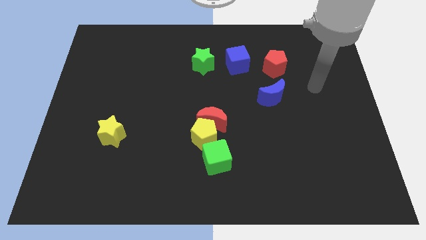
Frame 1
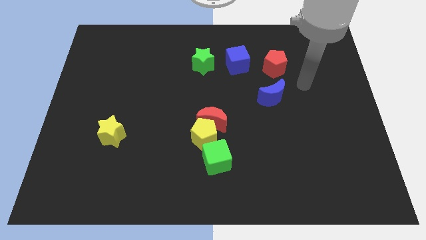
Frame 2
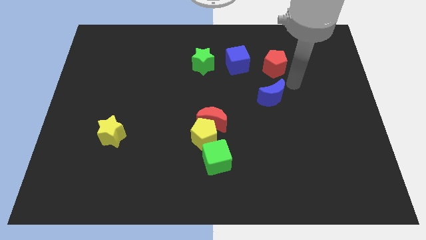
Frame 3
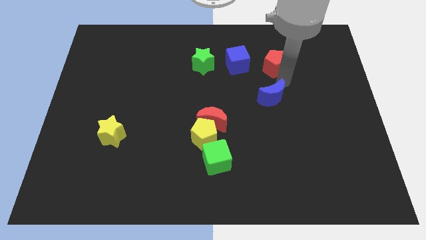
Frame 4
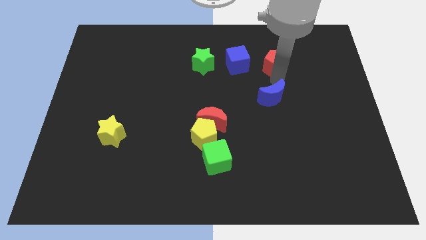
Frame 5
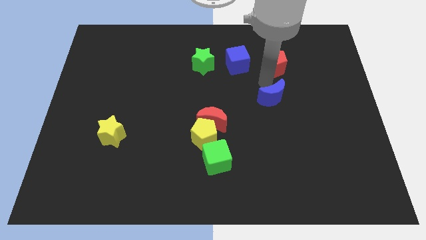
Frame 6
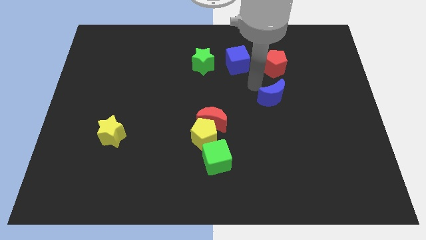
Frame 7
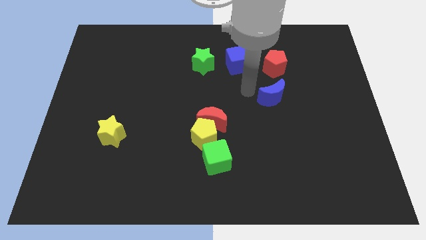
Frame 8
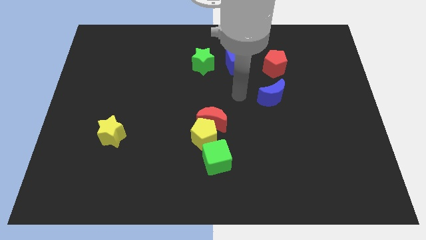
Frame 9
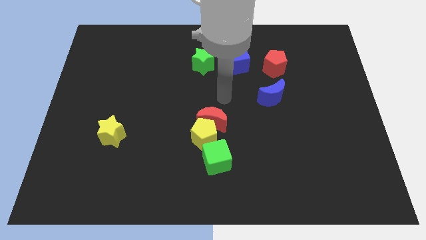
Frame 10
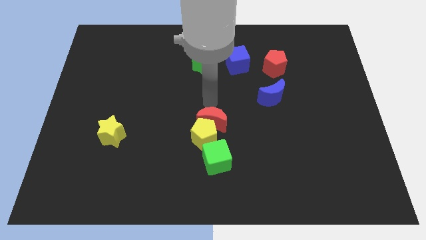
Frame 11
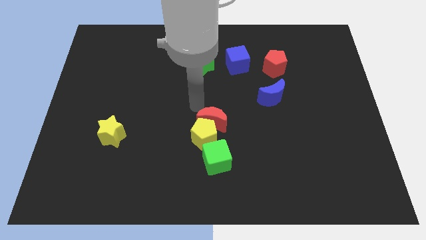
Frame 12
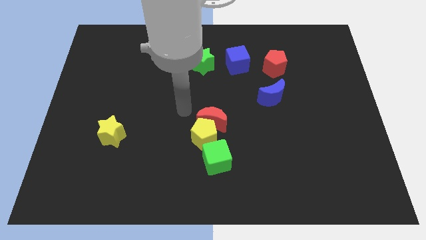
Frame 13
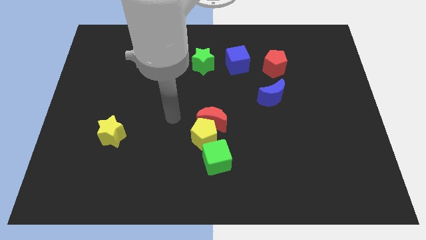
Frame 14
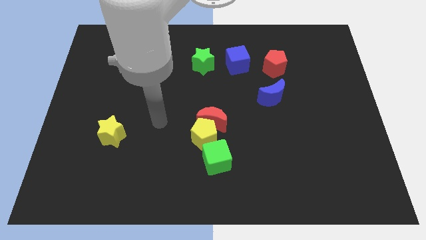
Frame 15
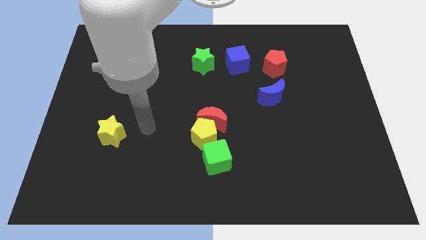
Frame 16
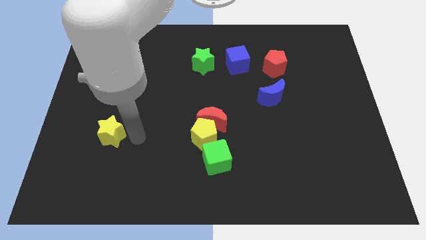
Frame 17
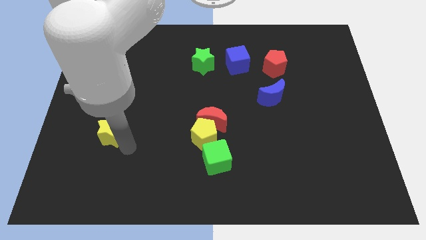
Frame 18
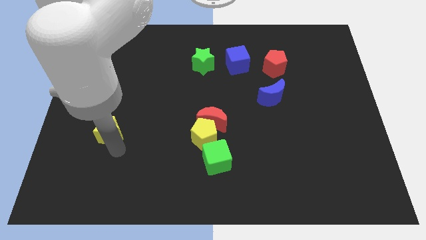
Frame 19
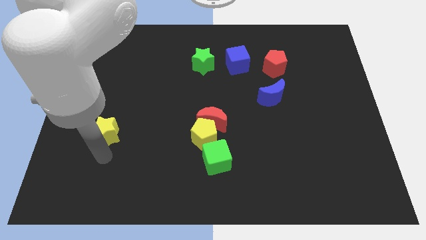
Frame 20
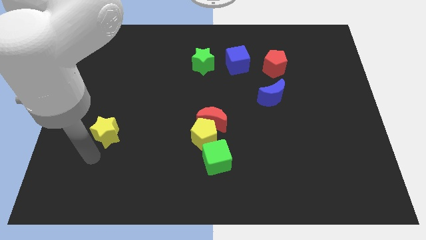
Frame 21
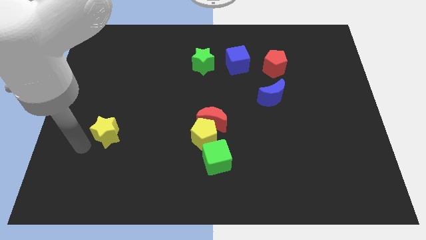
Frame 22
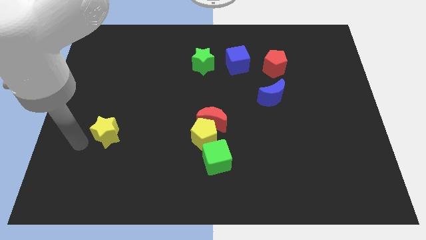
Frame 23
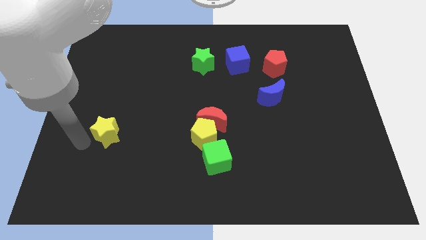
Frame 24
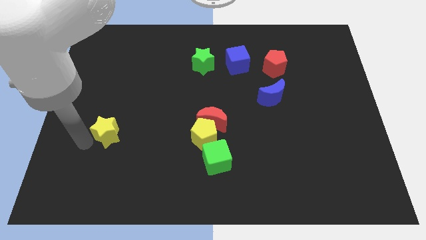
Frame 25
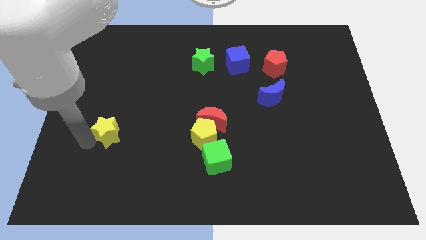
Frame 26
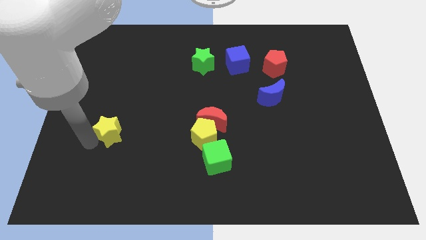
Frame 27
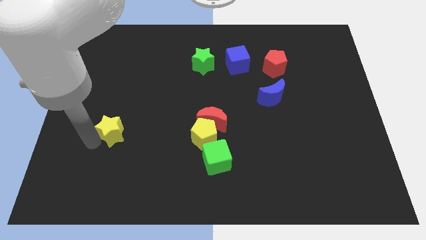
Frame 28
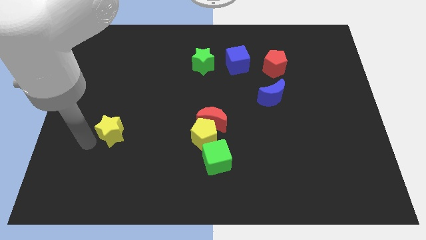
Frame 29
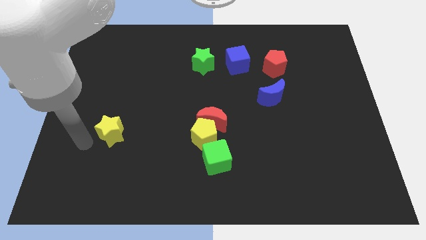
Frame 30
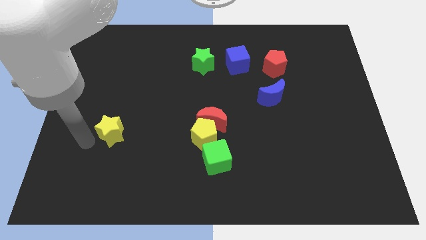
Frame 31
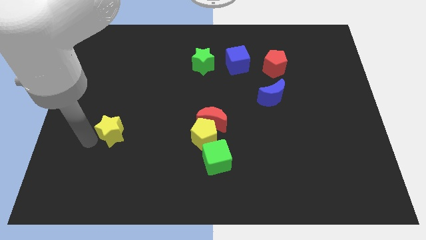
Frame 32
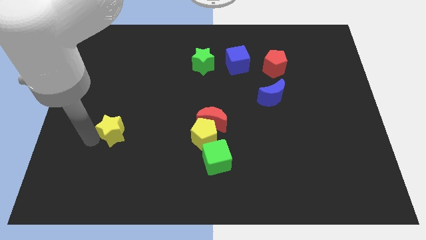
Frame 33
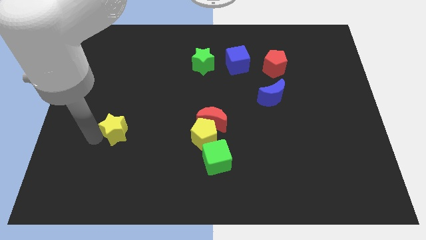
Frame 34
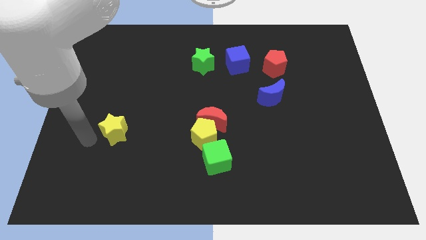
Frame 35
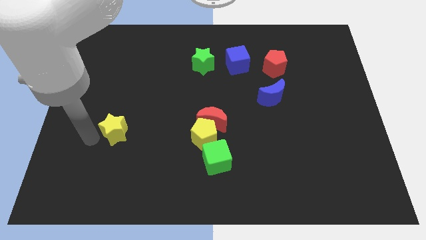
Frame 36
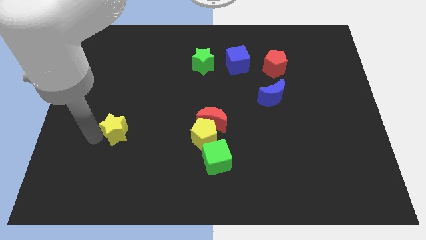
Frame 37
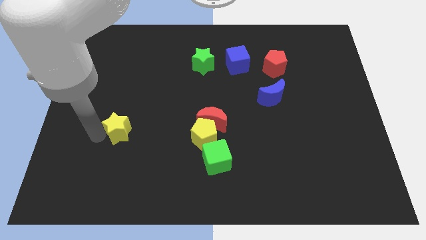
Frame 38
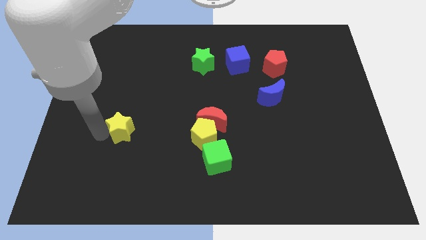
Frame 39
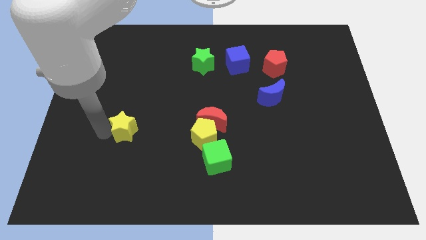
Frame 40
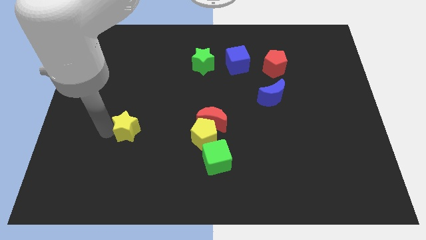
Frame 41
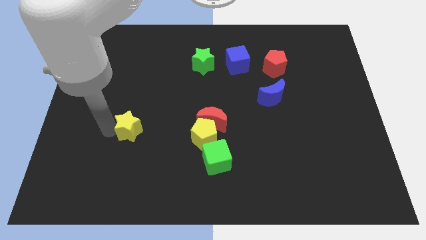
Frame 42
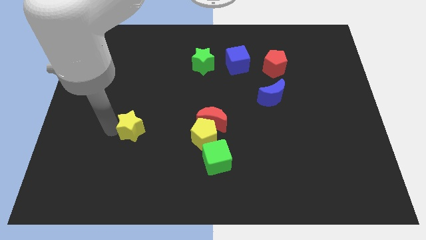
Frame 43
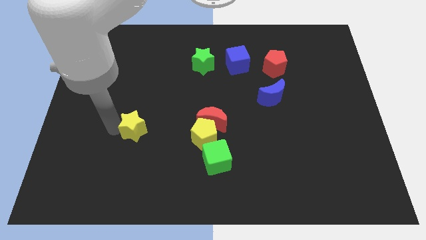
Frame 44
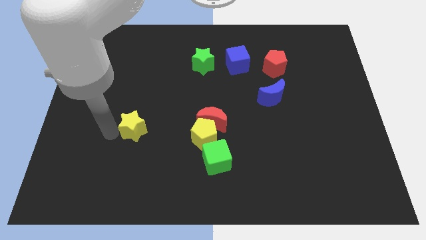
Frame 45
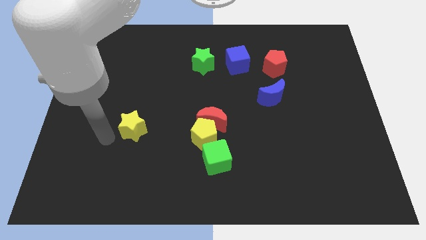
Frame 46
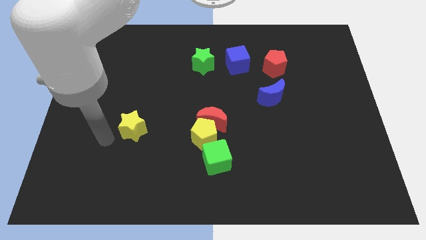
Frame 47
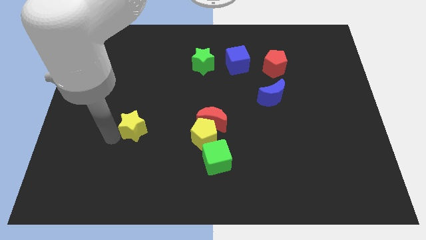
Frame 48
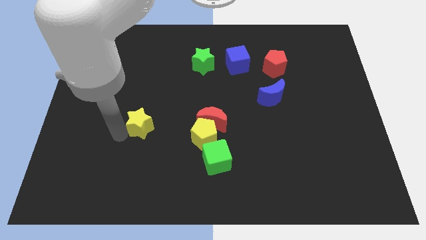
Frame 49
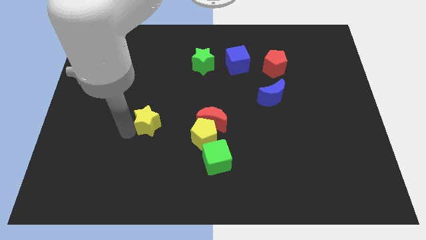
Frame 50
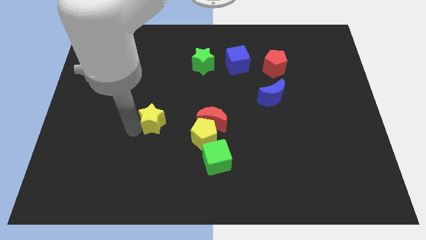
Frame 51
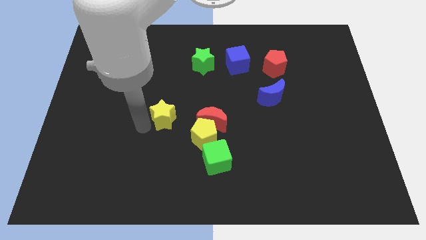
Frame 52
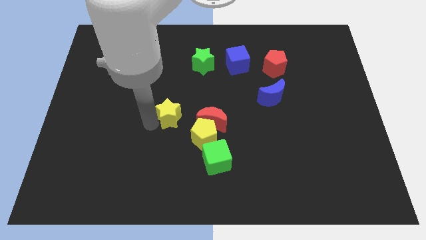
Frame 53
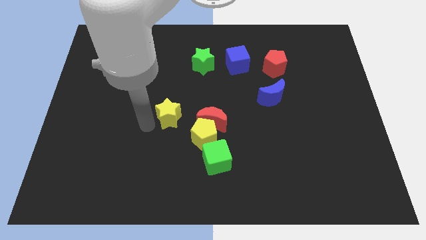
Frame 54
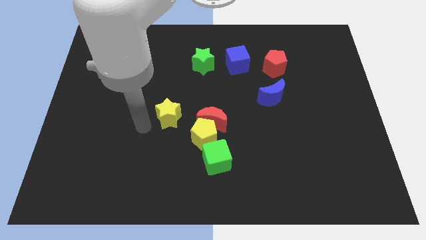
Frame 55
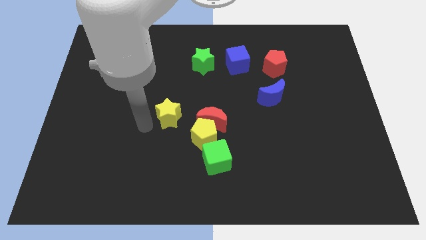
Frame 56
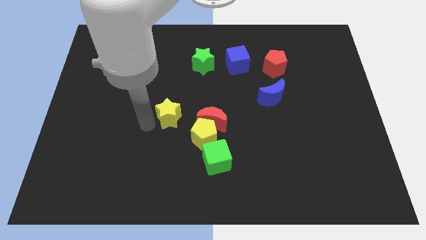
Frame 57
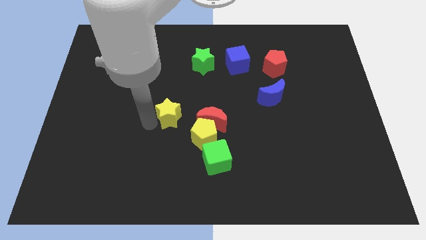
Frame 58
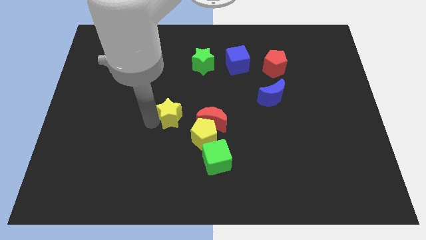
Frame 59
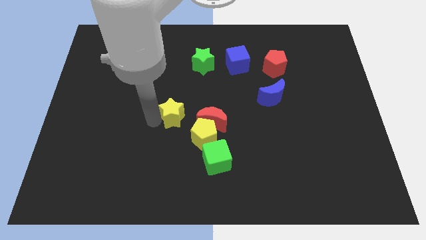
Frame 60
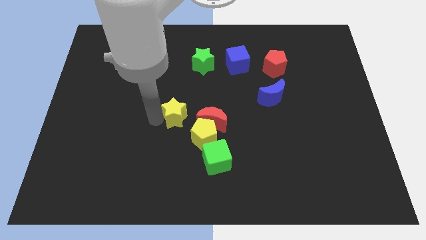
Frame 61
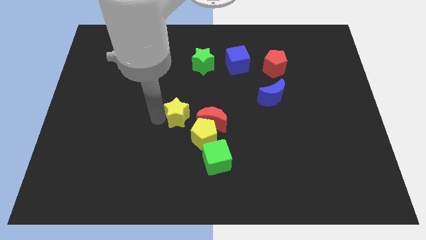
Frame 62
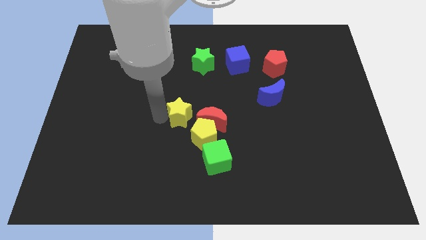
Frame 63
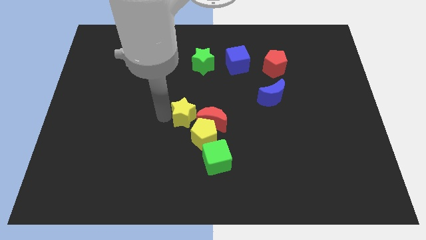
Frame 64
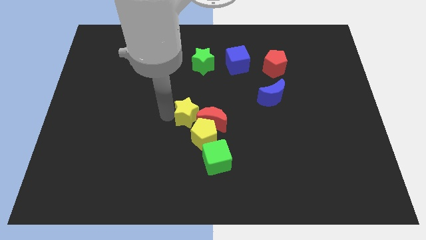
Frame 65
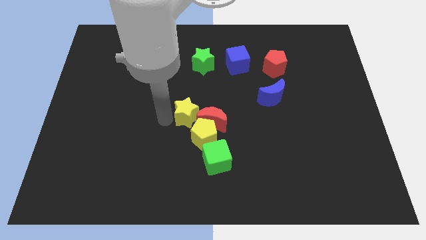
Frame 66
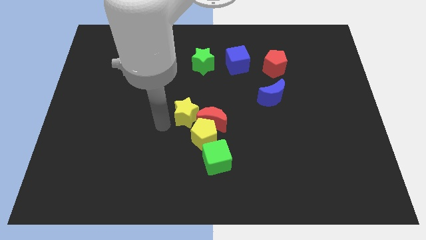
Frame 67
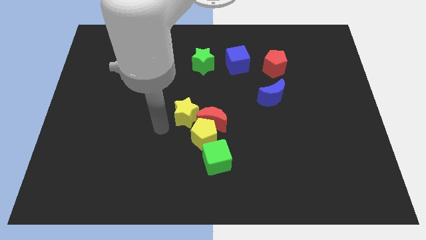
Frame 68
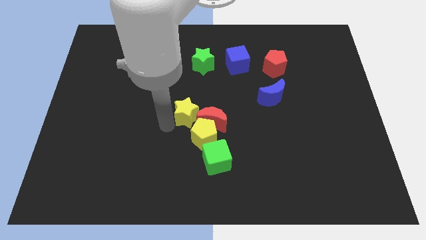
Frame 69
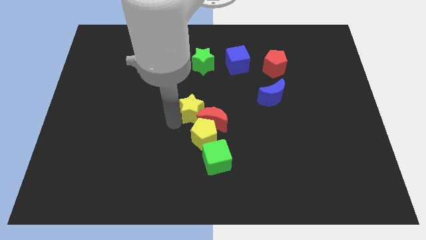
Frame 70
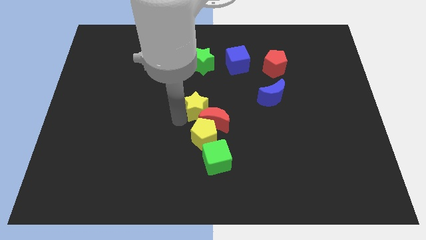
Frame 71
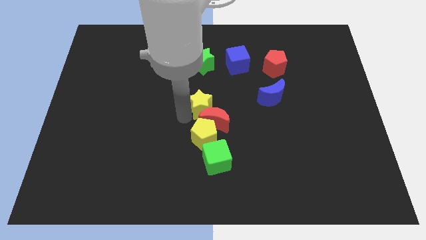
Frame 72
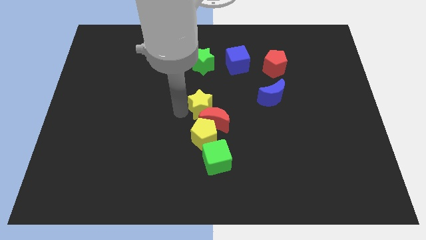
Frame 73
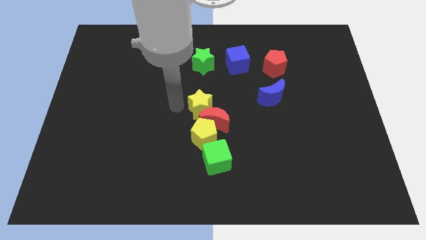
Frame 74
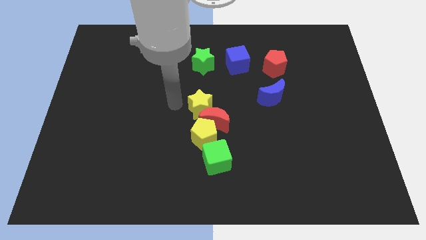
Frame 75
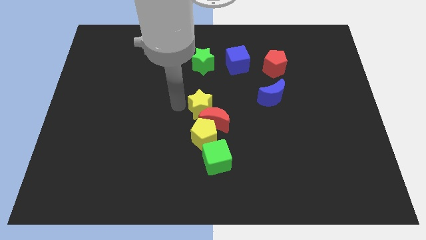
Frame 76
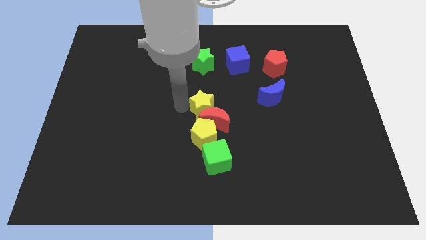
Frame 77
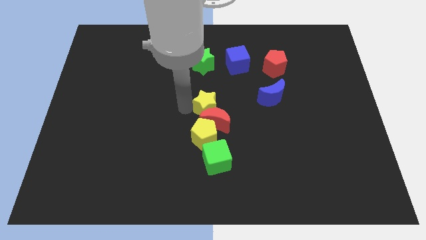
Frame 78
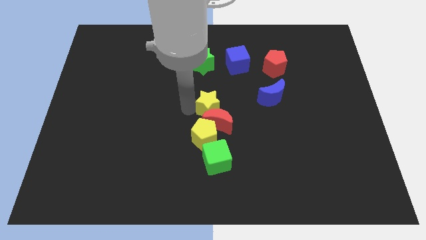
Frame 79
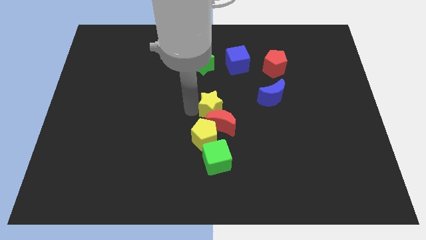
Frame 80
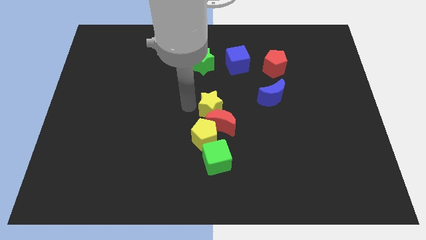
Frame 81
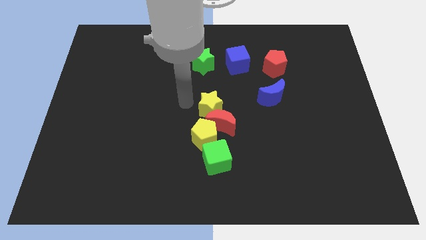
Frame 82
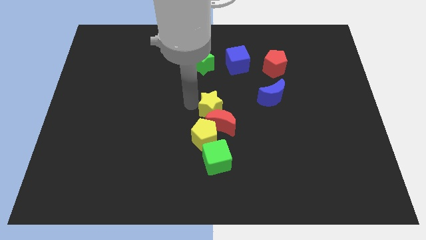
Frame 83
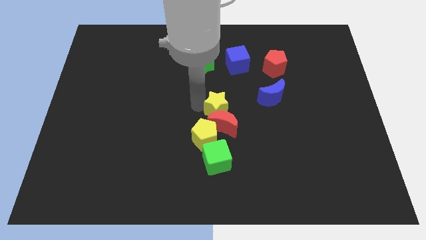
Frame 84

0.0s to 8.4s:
slide the yellow star right
